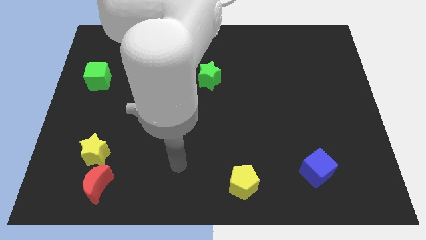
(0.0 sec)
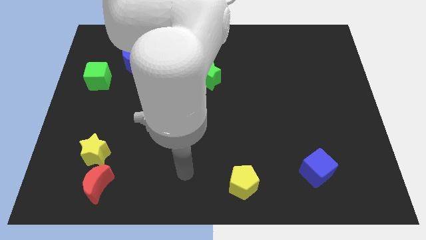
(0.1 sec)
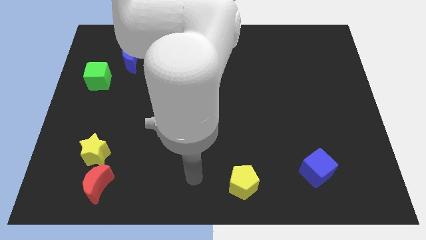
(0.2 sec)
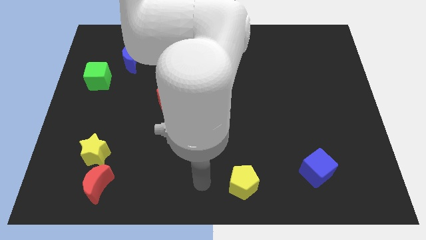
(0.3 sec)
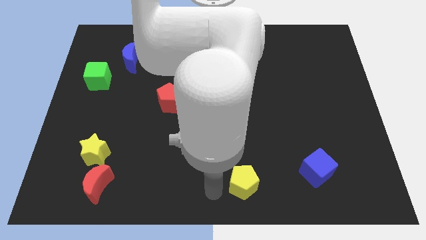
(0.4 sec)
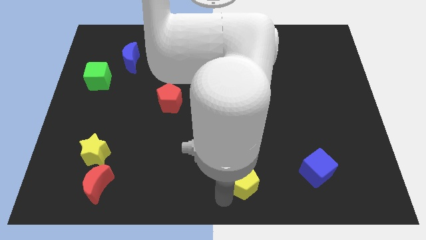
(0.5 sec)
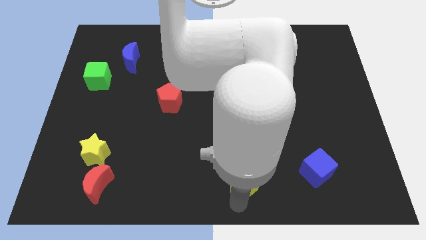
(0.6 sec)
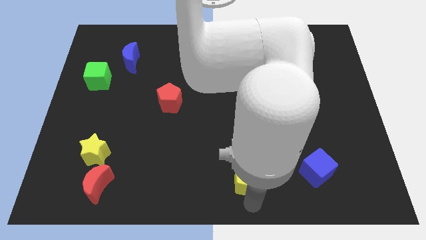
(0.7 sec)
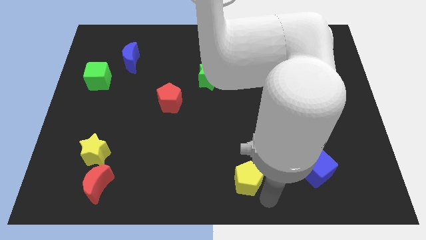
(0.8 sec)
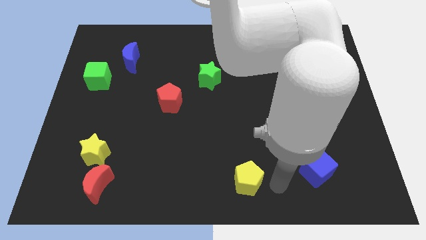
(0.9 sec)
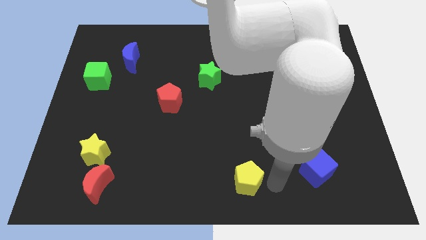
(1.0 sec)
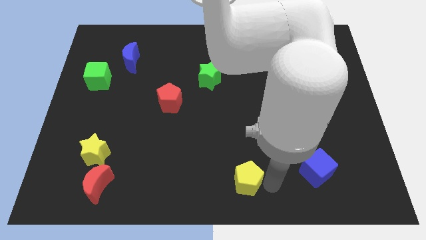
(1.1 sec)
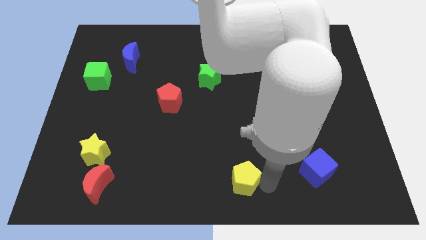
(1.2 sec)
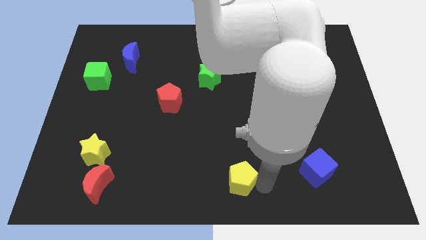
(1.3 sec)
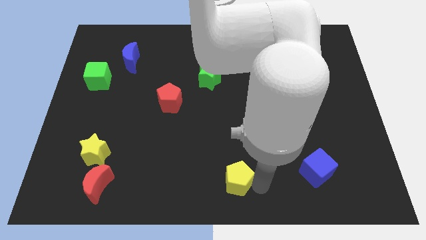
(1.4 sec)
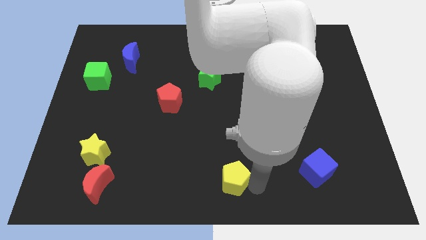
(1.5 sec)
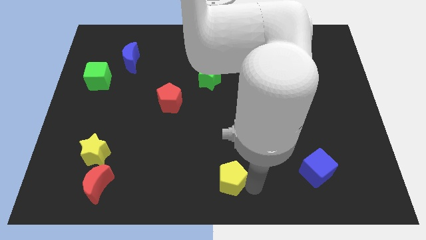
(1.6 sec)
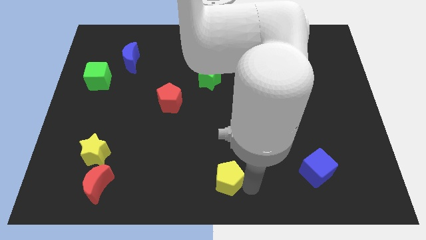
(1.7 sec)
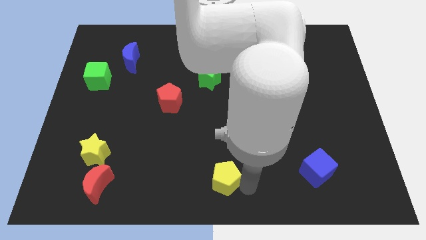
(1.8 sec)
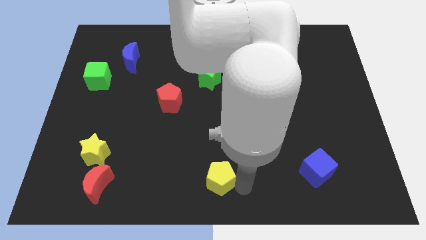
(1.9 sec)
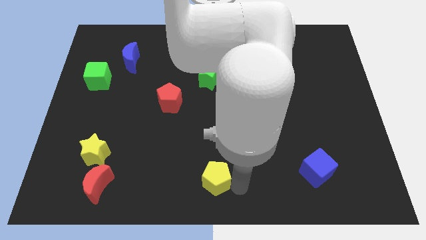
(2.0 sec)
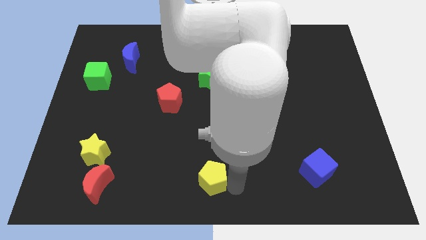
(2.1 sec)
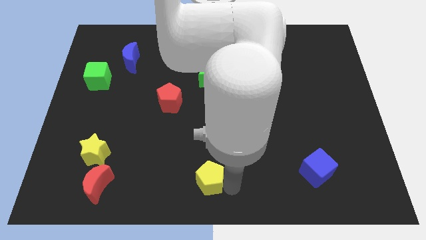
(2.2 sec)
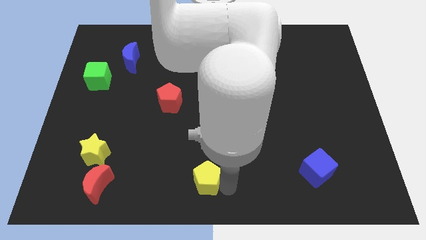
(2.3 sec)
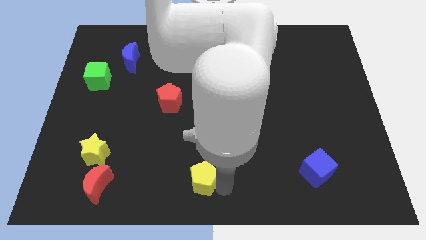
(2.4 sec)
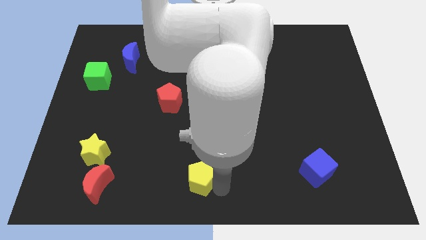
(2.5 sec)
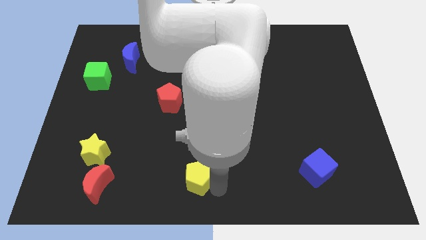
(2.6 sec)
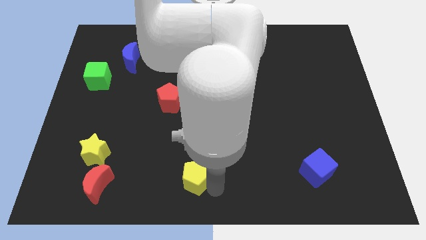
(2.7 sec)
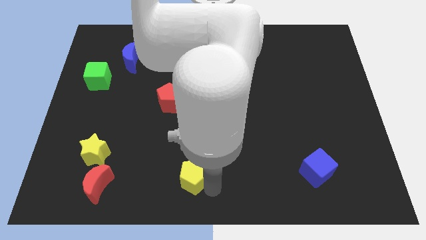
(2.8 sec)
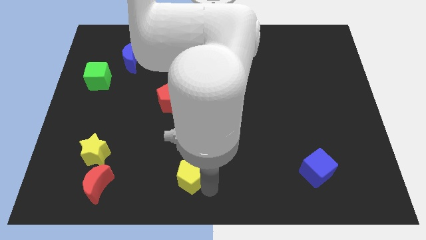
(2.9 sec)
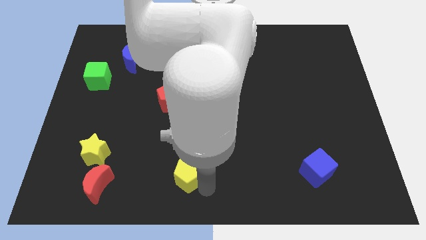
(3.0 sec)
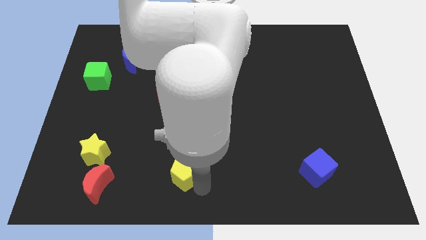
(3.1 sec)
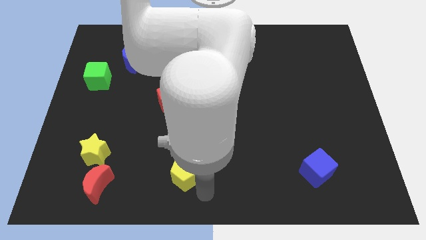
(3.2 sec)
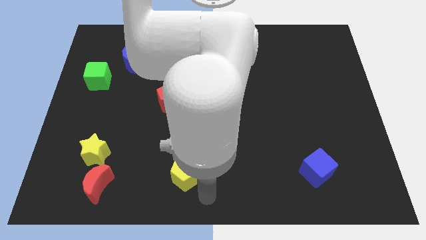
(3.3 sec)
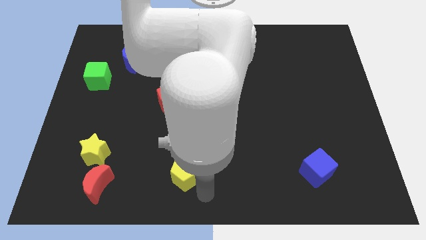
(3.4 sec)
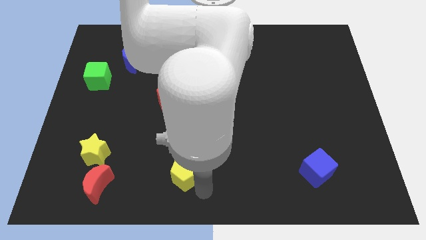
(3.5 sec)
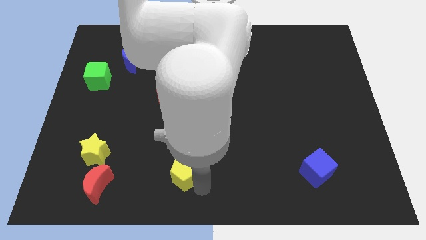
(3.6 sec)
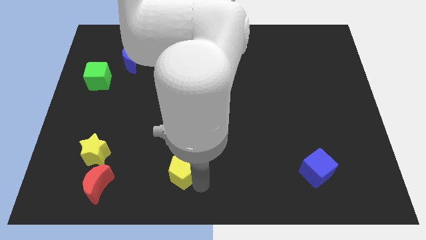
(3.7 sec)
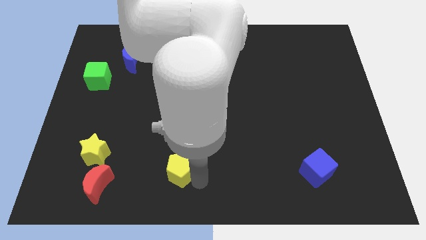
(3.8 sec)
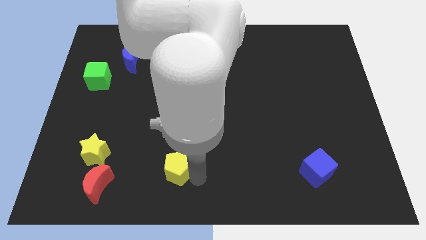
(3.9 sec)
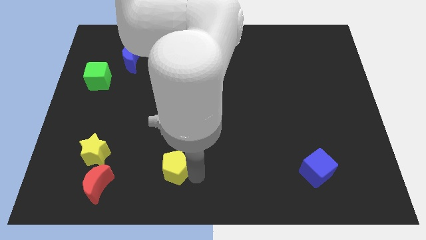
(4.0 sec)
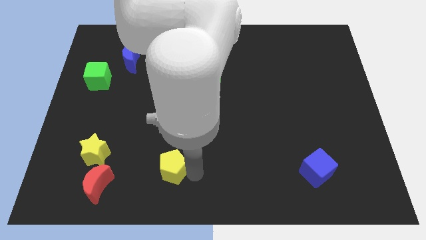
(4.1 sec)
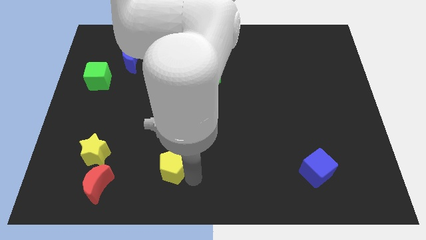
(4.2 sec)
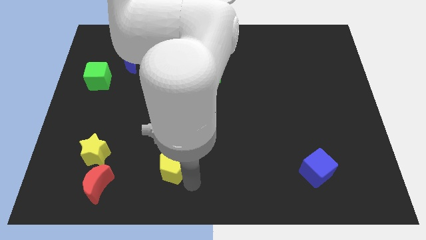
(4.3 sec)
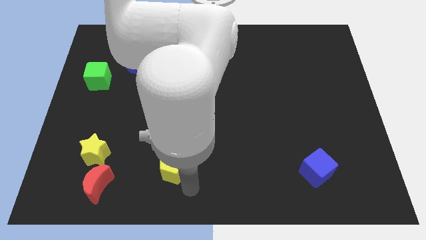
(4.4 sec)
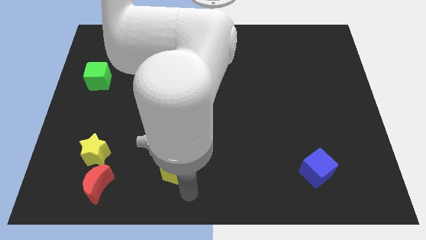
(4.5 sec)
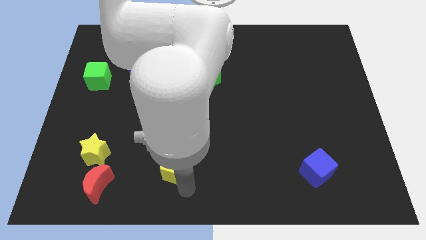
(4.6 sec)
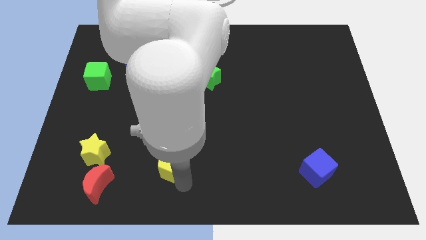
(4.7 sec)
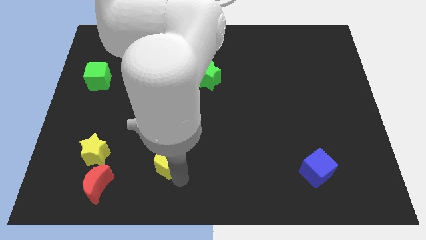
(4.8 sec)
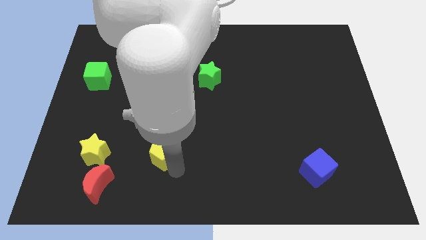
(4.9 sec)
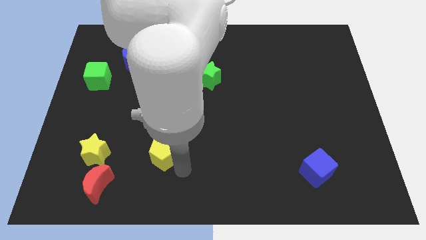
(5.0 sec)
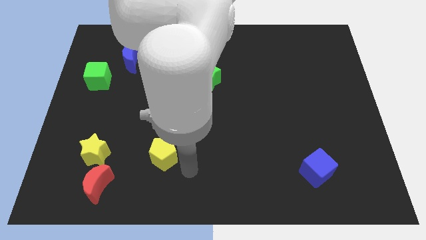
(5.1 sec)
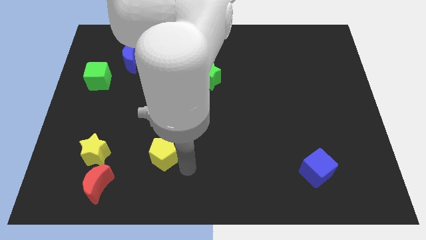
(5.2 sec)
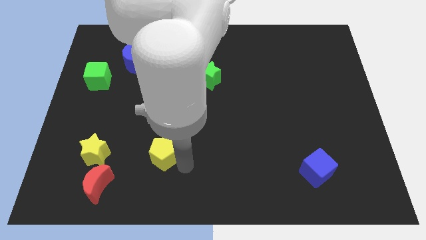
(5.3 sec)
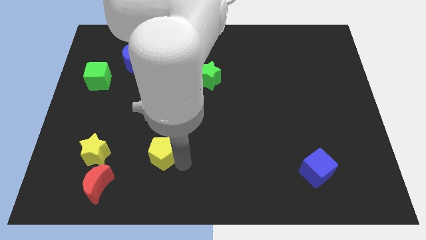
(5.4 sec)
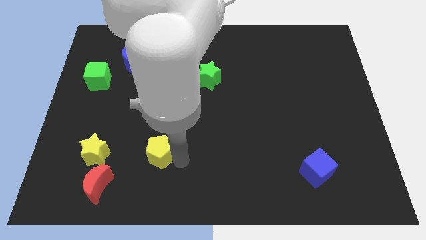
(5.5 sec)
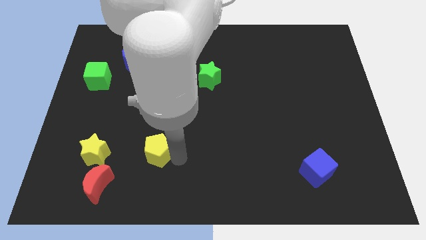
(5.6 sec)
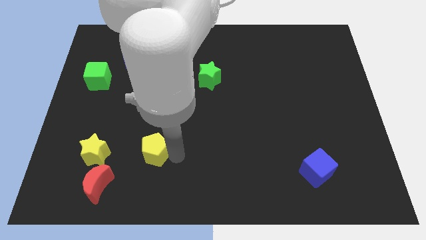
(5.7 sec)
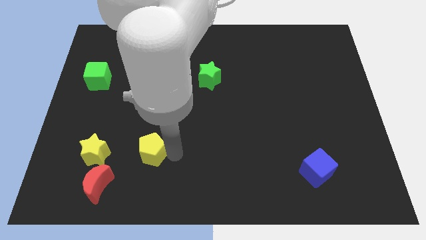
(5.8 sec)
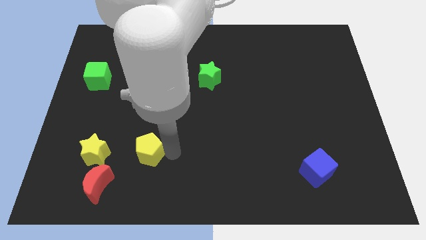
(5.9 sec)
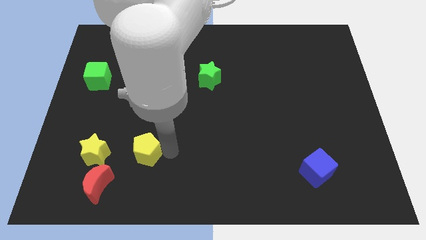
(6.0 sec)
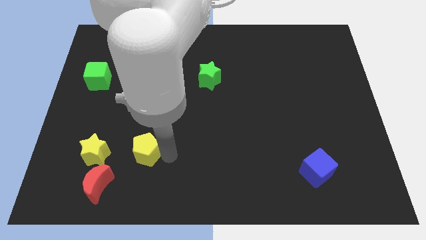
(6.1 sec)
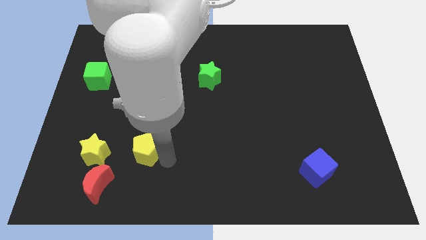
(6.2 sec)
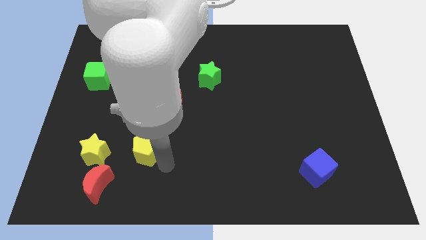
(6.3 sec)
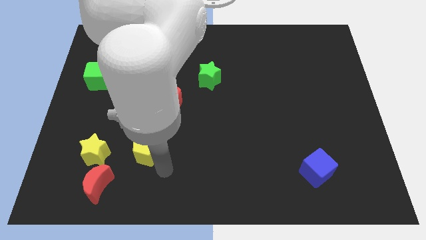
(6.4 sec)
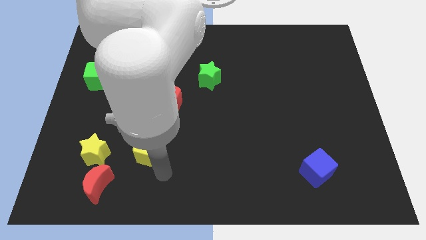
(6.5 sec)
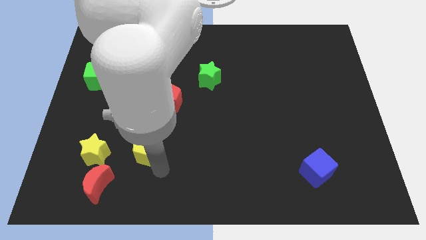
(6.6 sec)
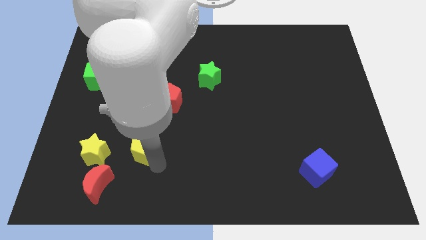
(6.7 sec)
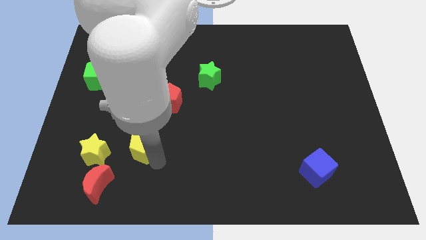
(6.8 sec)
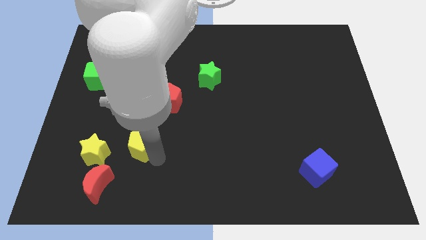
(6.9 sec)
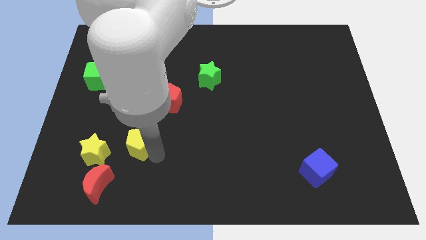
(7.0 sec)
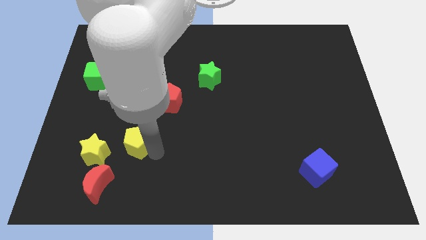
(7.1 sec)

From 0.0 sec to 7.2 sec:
move the yellow pentagon to the top right side of the yellow star
